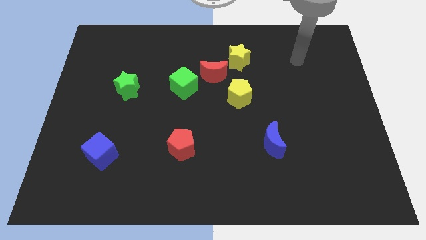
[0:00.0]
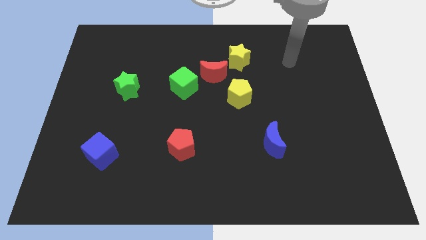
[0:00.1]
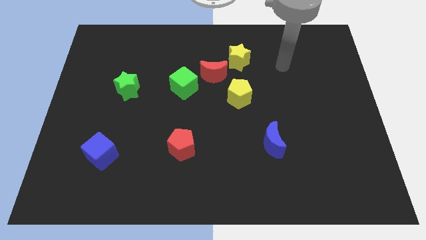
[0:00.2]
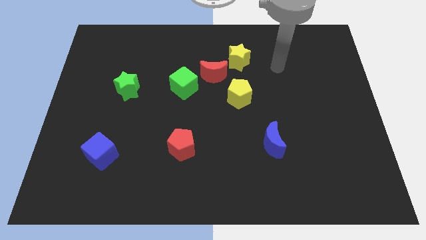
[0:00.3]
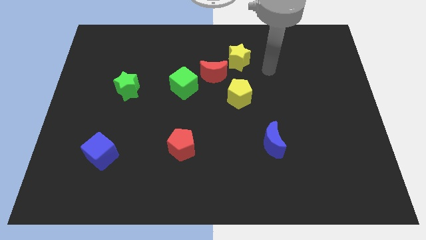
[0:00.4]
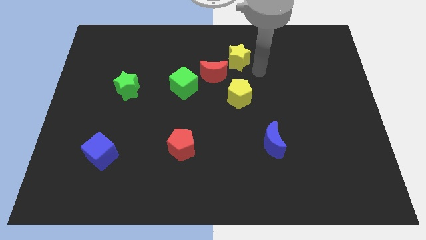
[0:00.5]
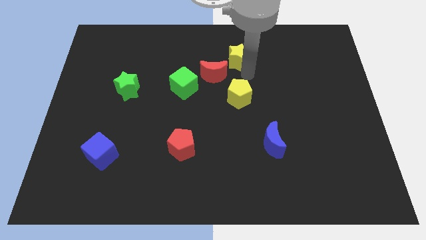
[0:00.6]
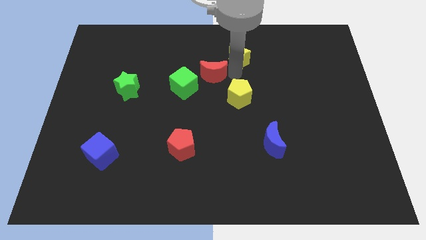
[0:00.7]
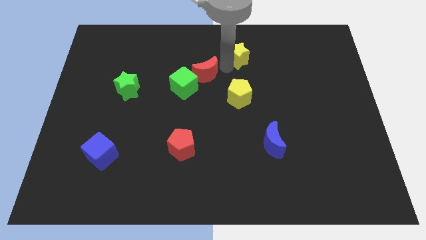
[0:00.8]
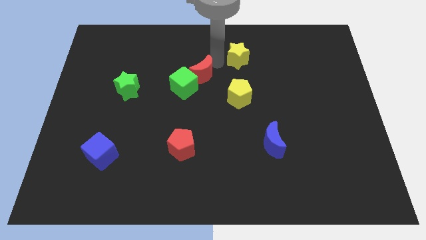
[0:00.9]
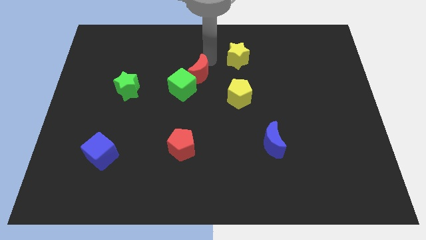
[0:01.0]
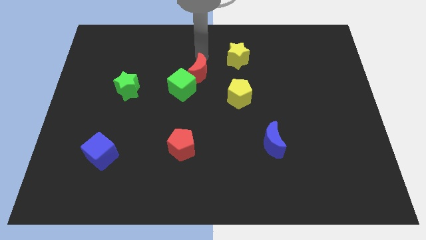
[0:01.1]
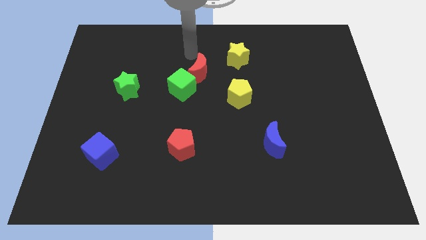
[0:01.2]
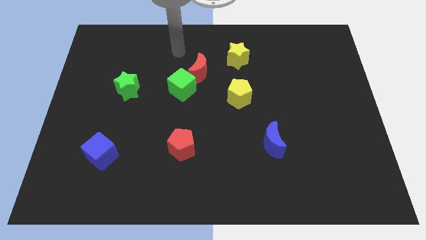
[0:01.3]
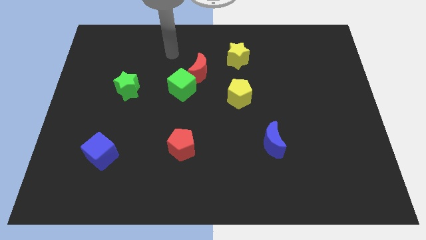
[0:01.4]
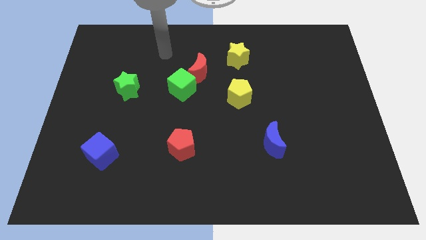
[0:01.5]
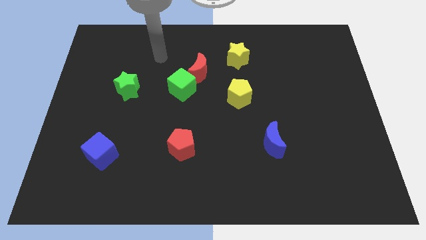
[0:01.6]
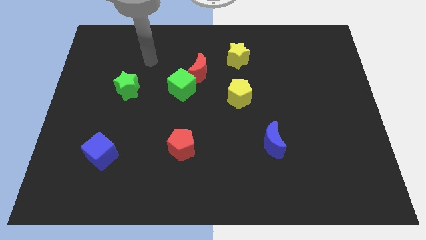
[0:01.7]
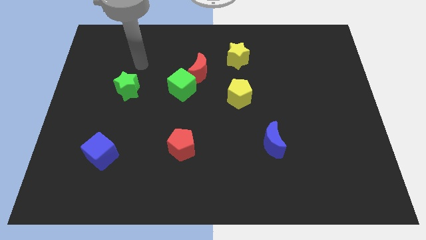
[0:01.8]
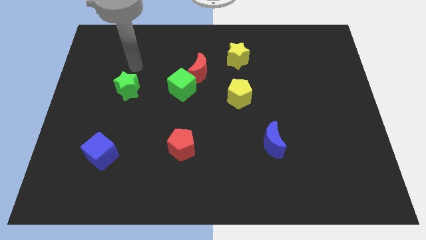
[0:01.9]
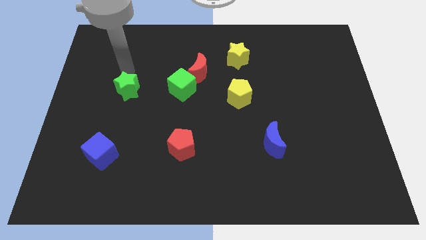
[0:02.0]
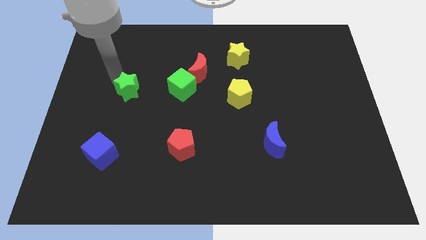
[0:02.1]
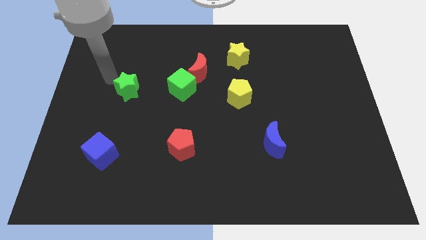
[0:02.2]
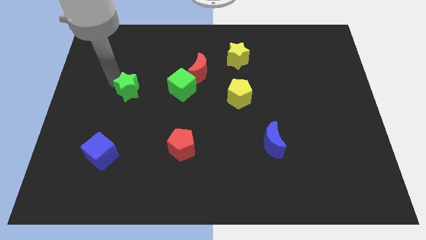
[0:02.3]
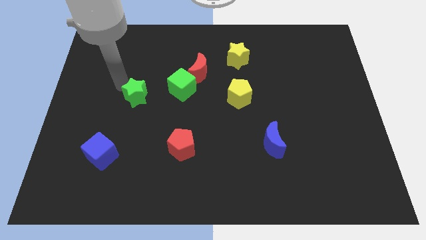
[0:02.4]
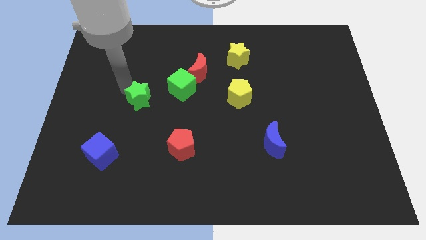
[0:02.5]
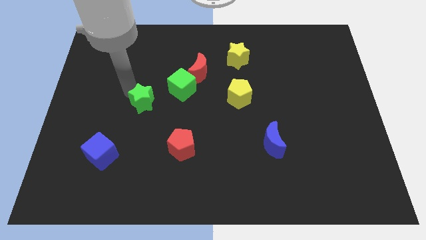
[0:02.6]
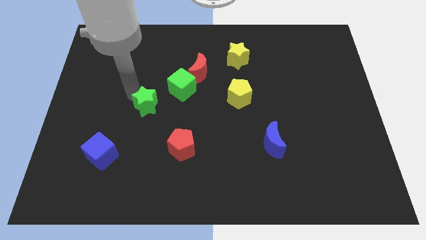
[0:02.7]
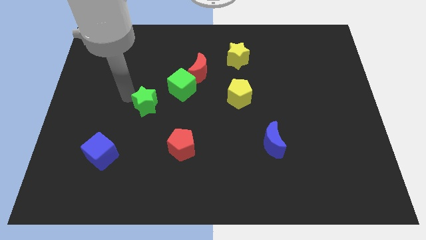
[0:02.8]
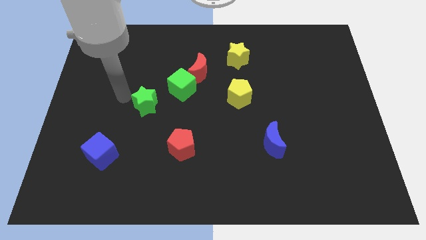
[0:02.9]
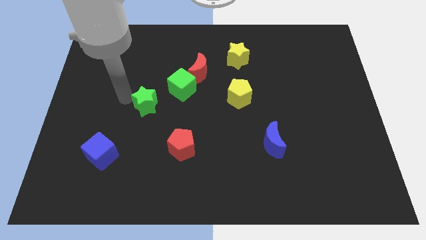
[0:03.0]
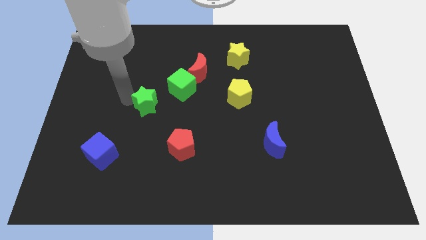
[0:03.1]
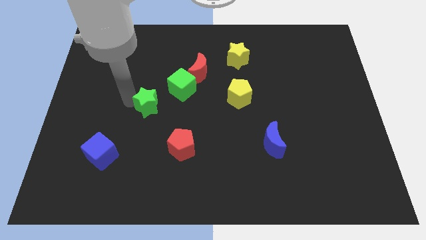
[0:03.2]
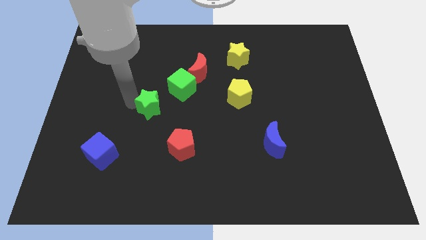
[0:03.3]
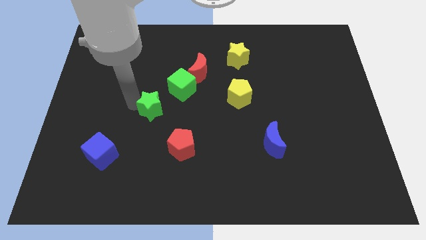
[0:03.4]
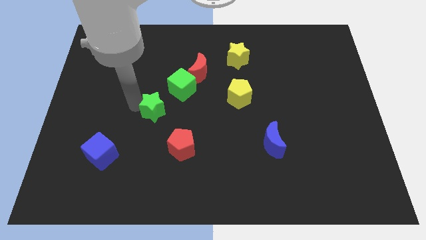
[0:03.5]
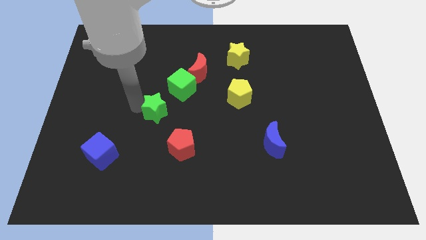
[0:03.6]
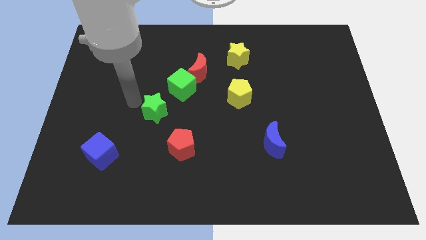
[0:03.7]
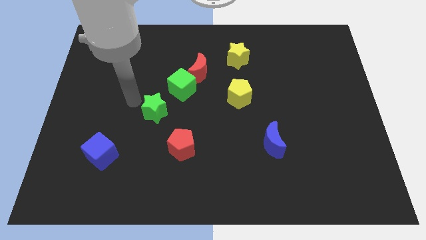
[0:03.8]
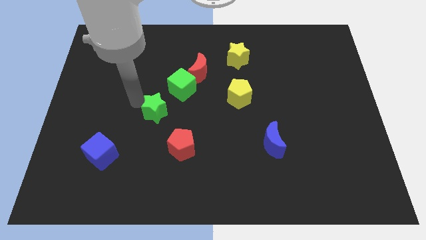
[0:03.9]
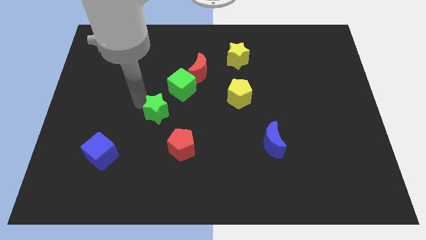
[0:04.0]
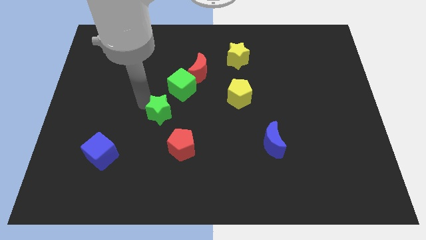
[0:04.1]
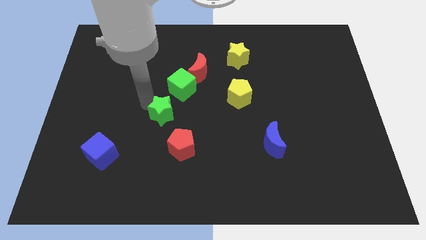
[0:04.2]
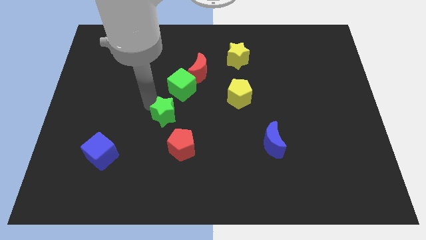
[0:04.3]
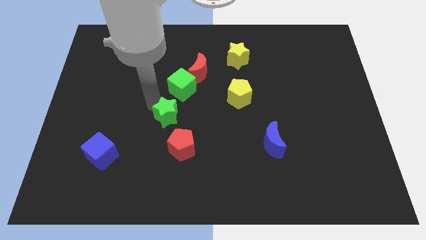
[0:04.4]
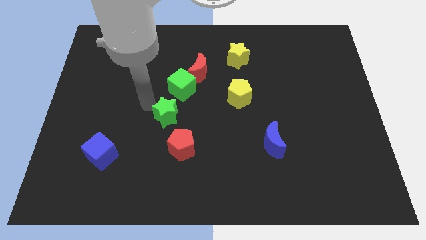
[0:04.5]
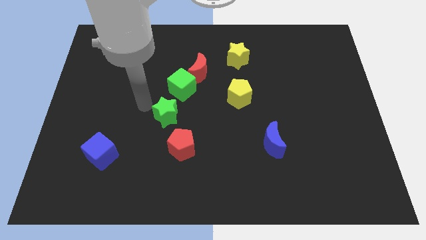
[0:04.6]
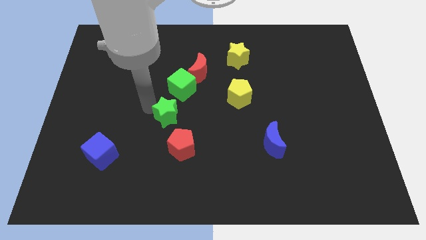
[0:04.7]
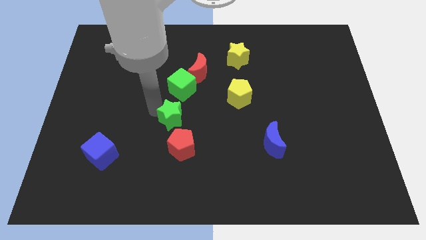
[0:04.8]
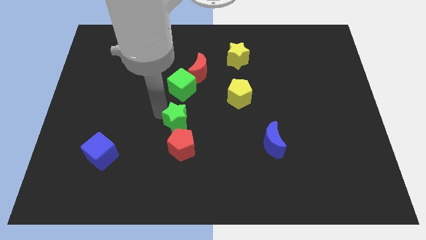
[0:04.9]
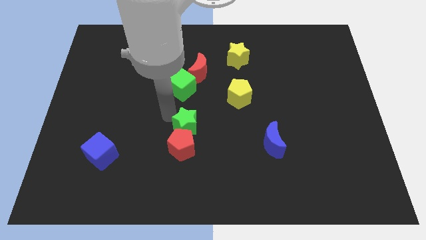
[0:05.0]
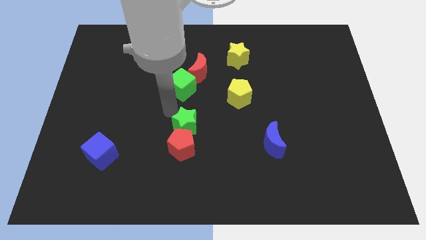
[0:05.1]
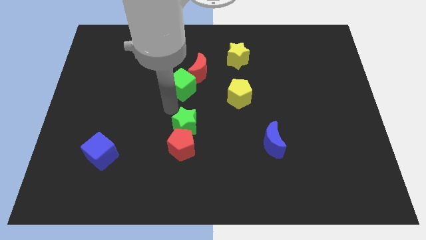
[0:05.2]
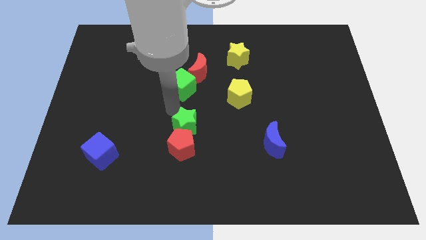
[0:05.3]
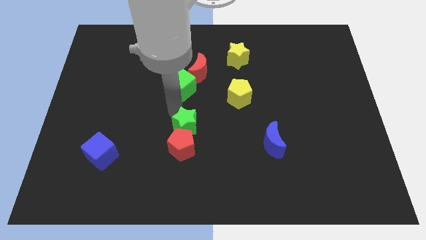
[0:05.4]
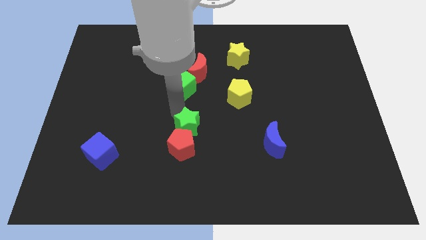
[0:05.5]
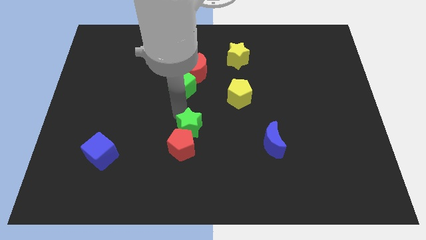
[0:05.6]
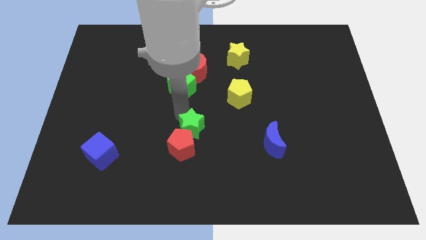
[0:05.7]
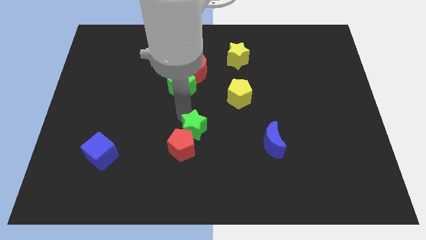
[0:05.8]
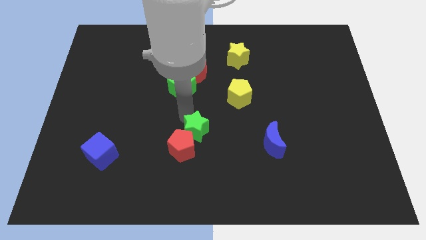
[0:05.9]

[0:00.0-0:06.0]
push the green star downwards and to the right diagonally

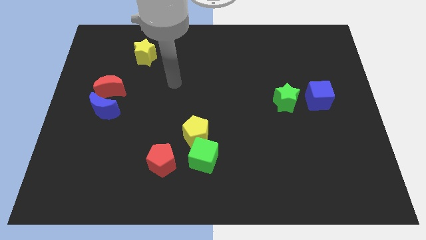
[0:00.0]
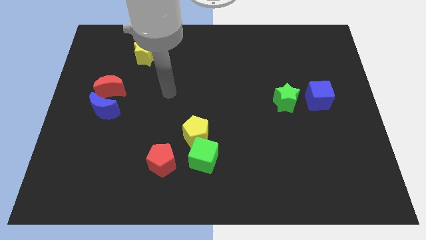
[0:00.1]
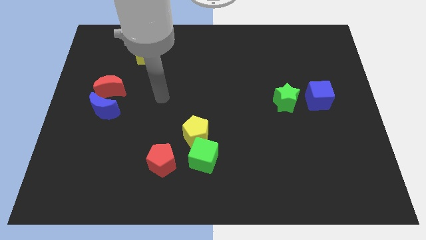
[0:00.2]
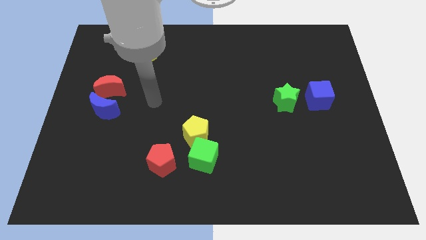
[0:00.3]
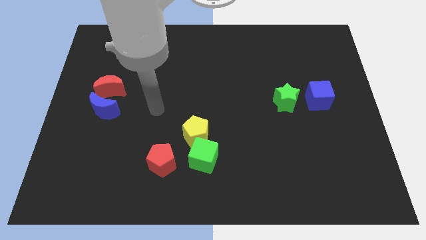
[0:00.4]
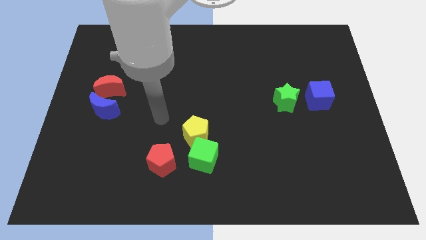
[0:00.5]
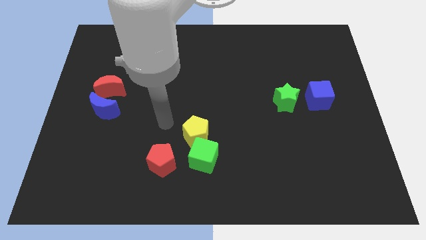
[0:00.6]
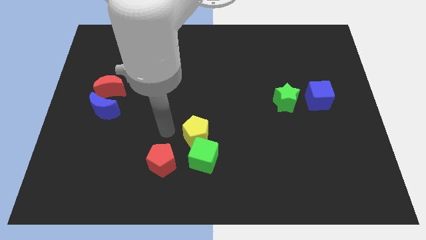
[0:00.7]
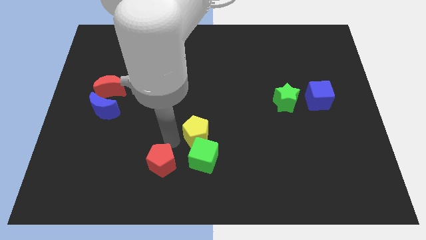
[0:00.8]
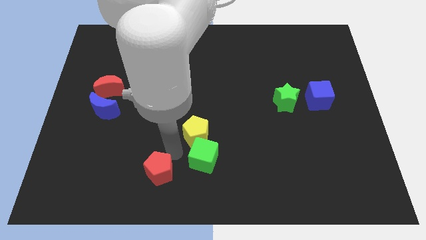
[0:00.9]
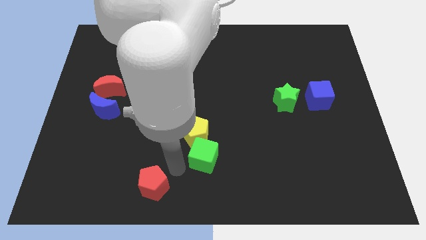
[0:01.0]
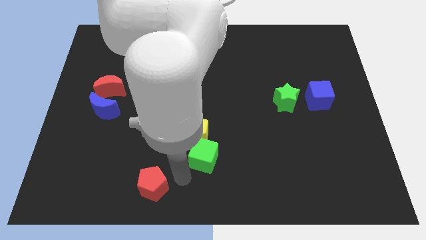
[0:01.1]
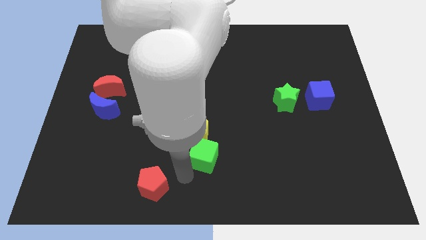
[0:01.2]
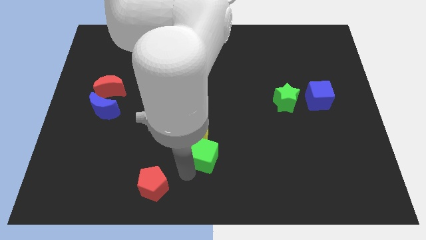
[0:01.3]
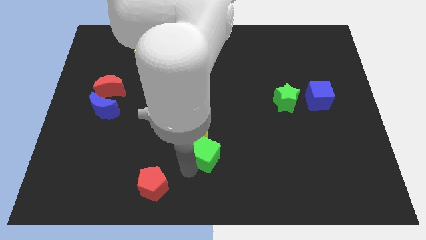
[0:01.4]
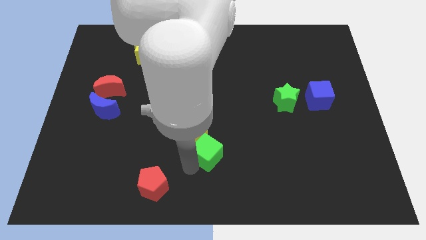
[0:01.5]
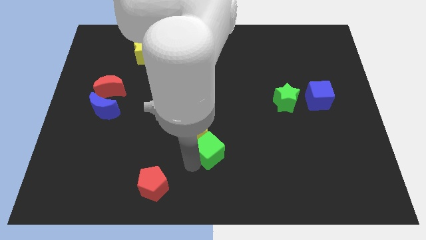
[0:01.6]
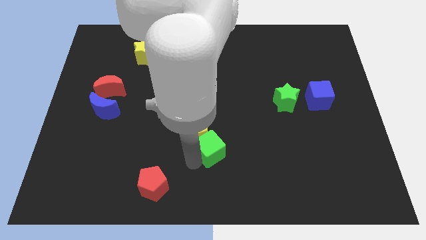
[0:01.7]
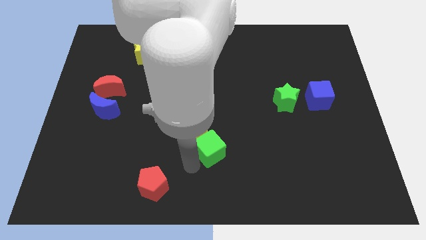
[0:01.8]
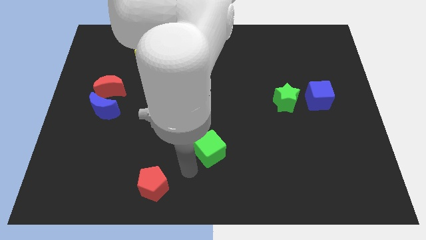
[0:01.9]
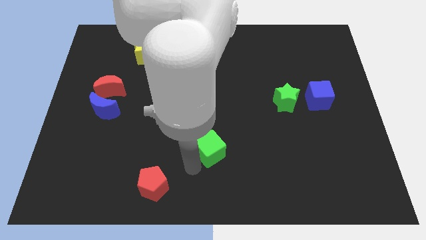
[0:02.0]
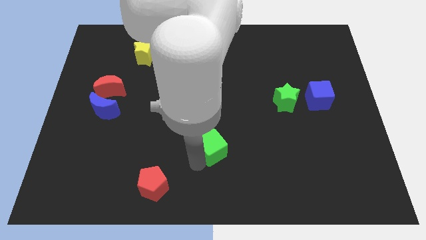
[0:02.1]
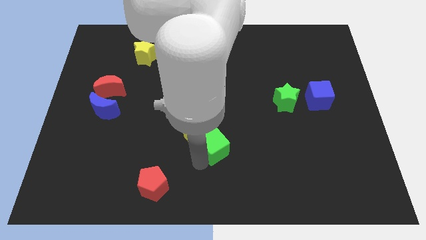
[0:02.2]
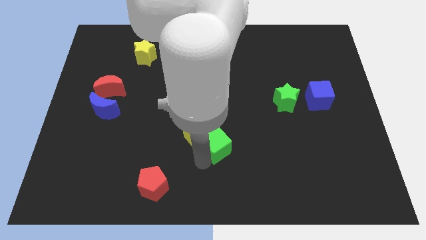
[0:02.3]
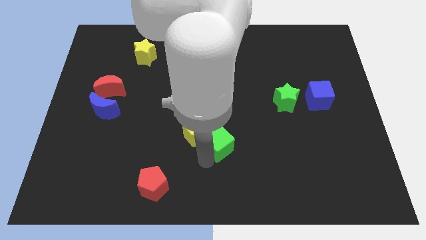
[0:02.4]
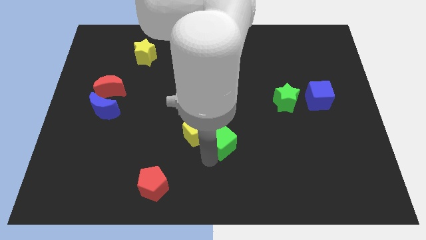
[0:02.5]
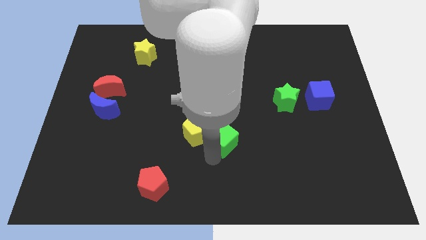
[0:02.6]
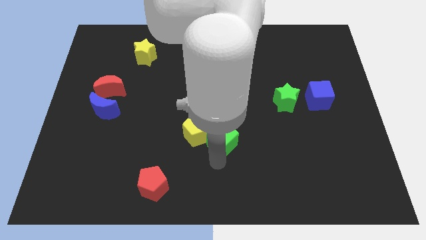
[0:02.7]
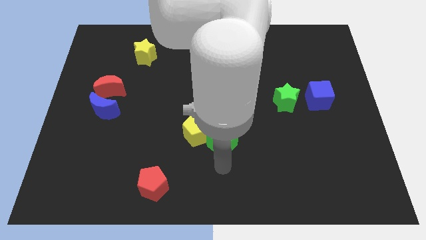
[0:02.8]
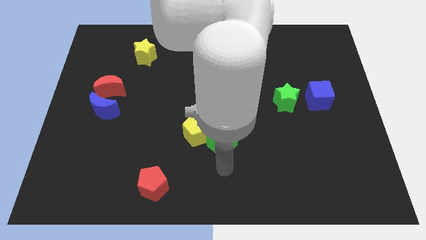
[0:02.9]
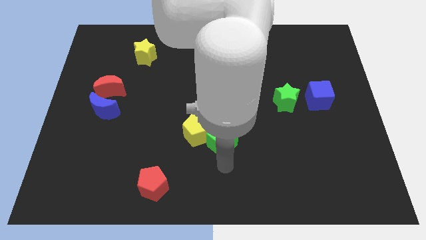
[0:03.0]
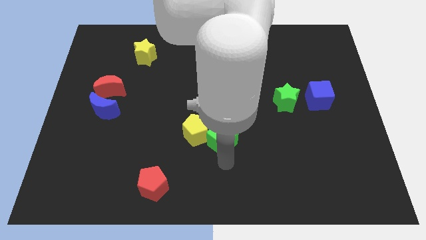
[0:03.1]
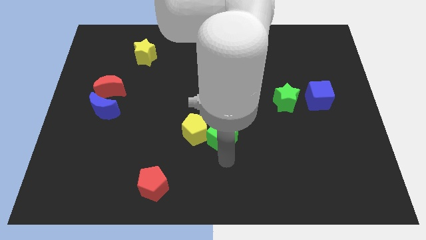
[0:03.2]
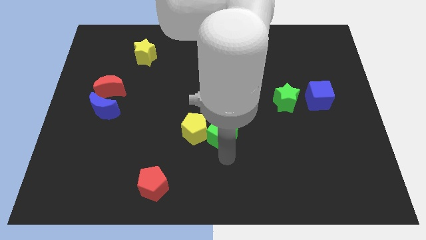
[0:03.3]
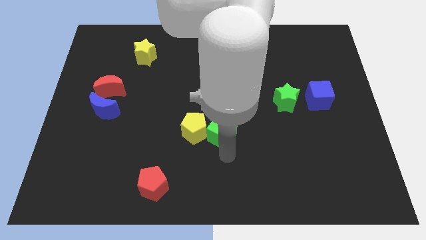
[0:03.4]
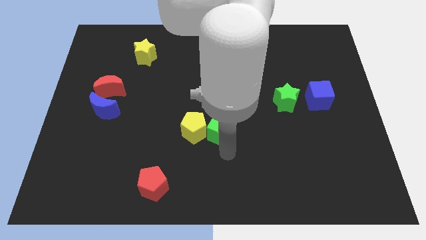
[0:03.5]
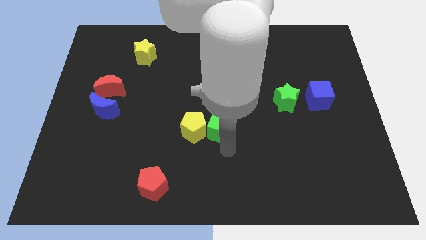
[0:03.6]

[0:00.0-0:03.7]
move the green cube up somewhat
